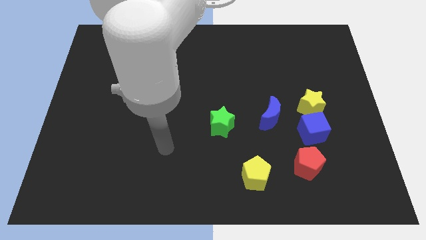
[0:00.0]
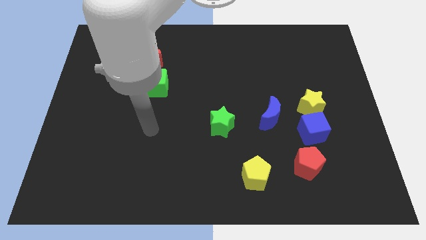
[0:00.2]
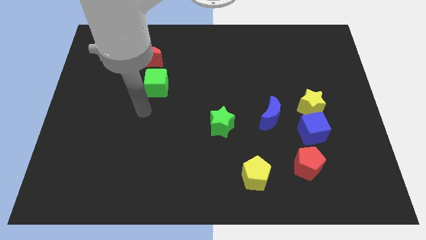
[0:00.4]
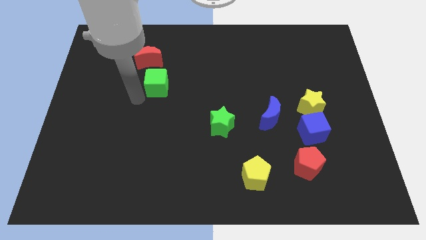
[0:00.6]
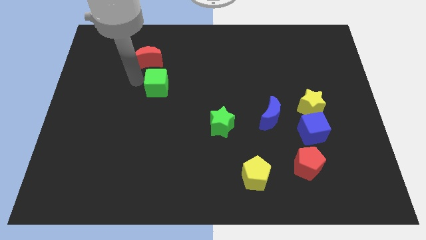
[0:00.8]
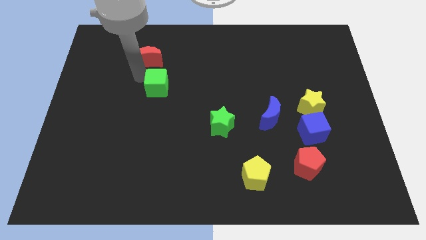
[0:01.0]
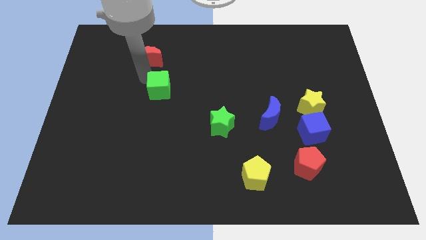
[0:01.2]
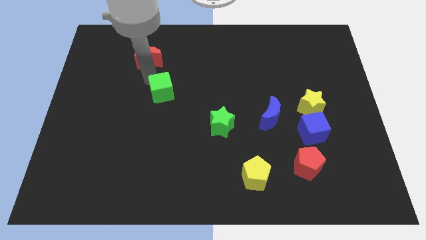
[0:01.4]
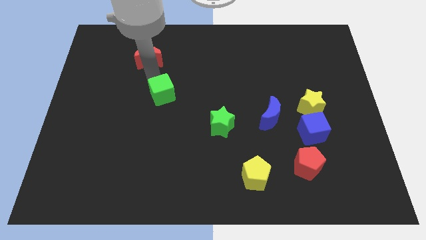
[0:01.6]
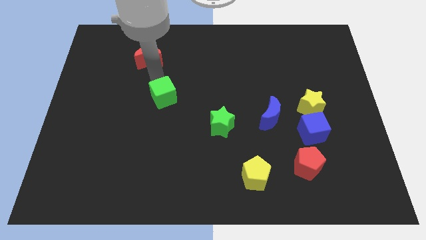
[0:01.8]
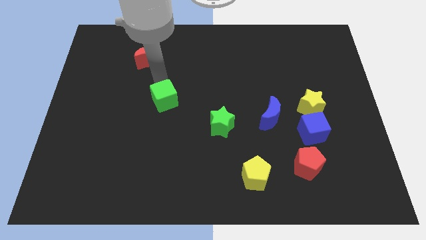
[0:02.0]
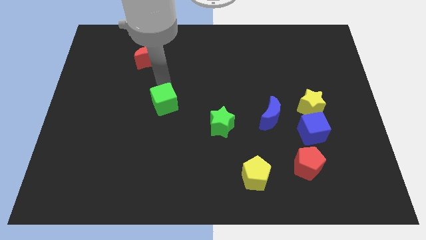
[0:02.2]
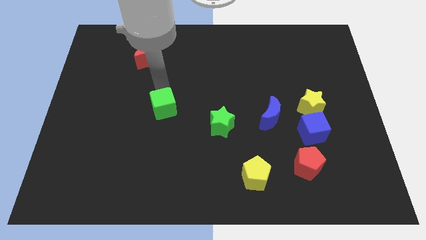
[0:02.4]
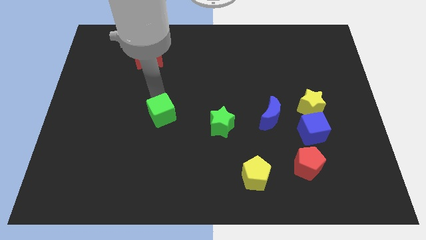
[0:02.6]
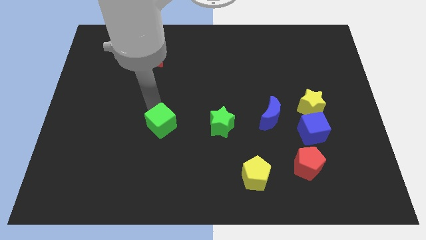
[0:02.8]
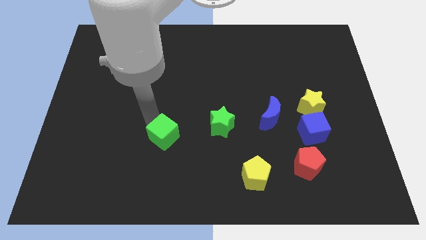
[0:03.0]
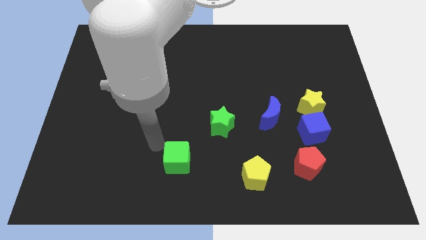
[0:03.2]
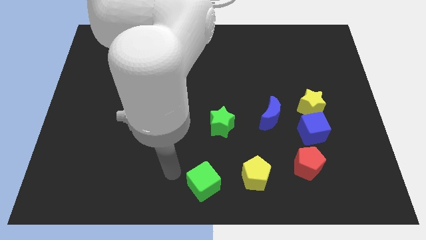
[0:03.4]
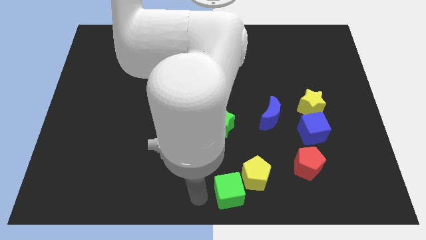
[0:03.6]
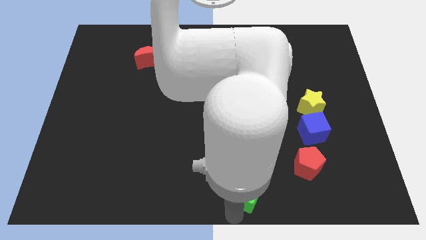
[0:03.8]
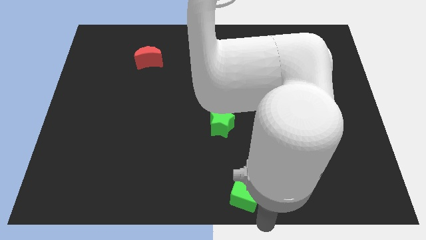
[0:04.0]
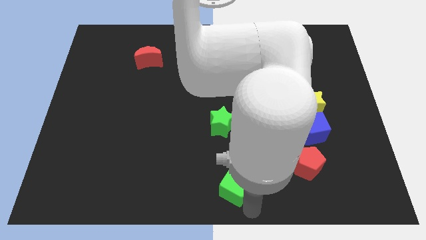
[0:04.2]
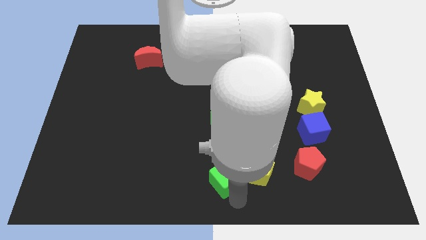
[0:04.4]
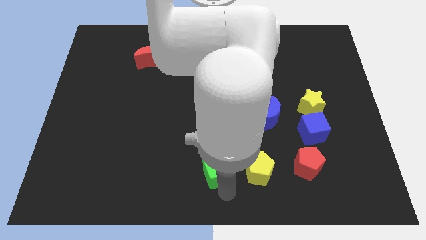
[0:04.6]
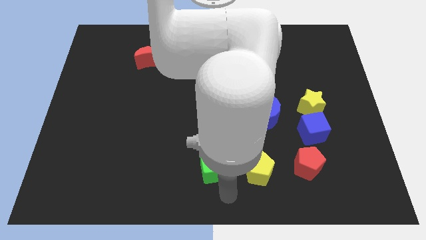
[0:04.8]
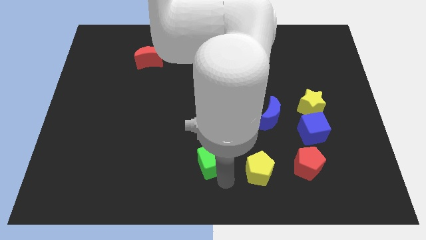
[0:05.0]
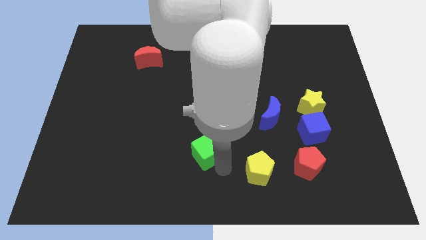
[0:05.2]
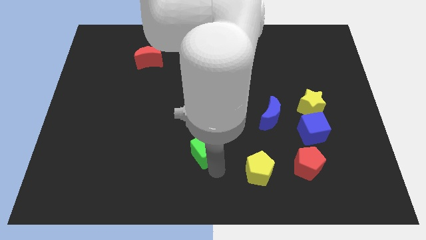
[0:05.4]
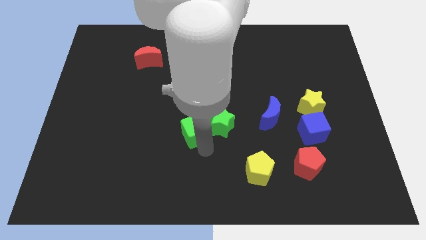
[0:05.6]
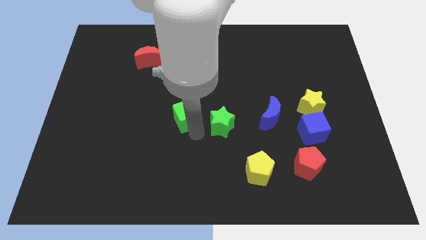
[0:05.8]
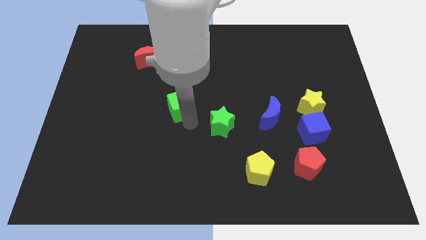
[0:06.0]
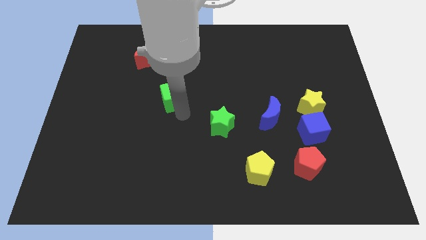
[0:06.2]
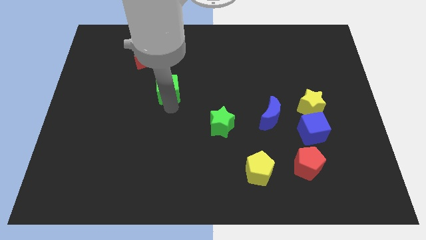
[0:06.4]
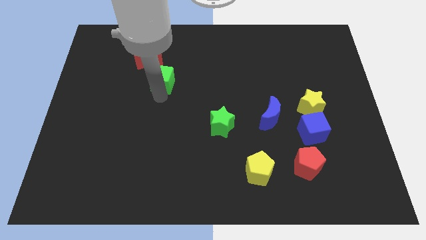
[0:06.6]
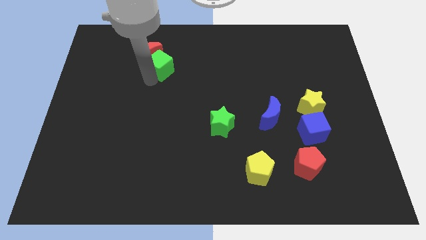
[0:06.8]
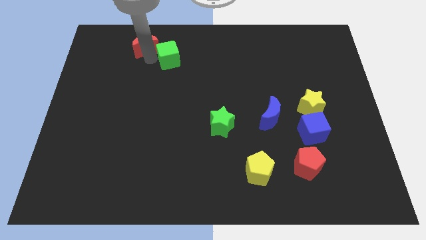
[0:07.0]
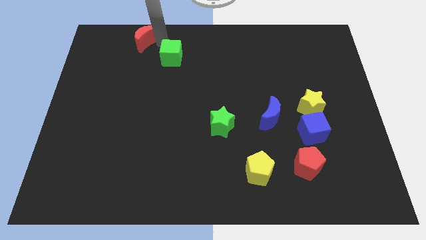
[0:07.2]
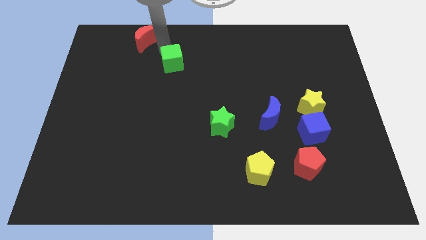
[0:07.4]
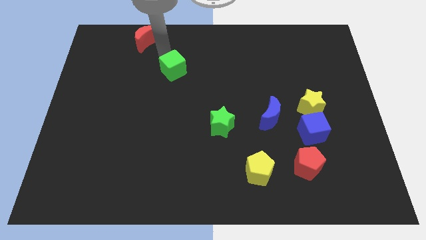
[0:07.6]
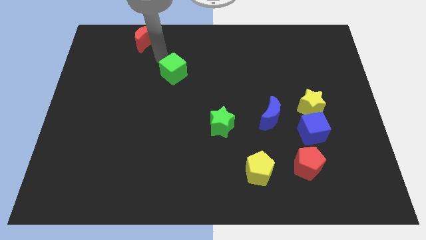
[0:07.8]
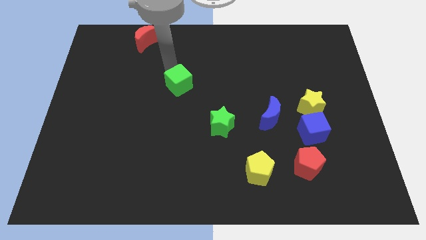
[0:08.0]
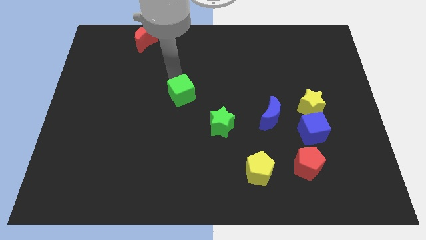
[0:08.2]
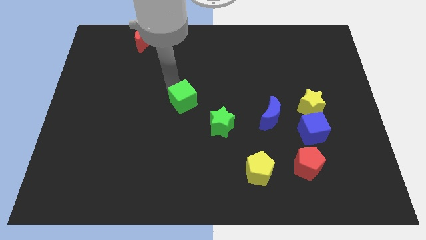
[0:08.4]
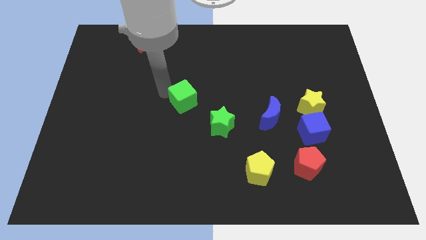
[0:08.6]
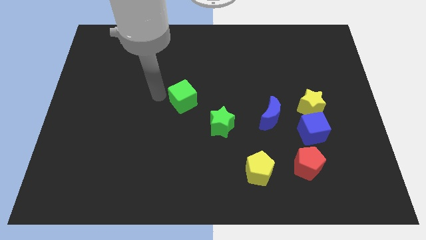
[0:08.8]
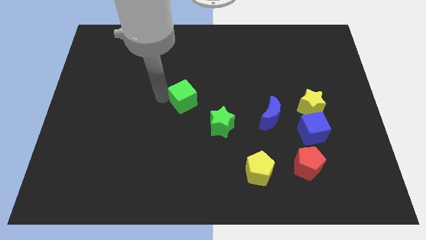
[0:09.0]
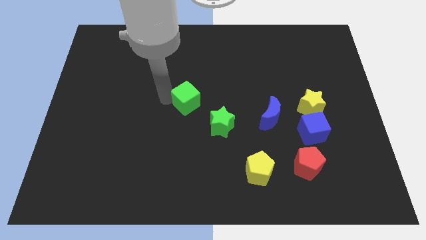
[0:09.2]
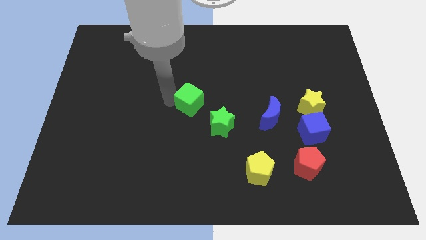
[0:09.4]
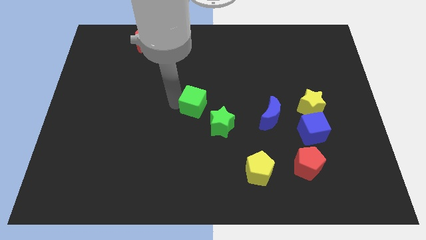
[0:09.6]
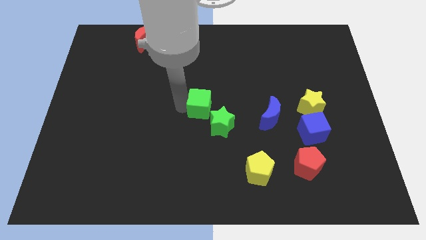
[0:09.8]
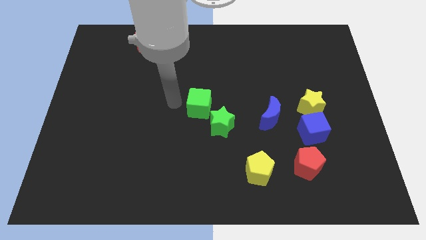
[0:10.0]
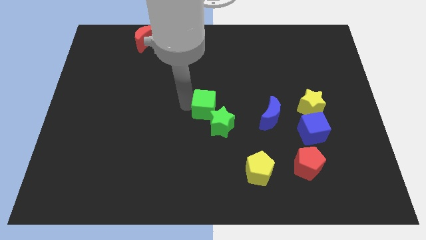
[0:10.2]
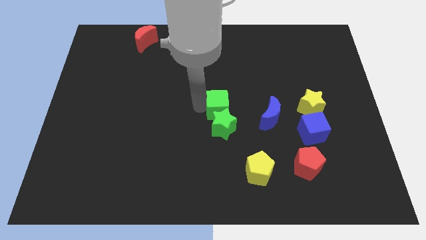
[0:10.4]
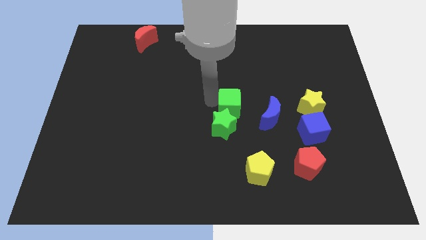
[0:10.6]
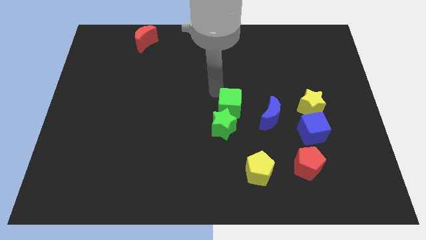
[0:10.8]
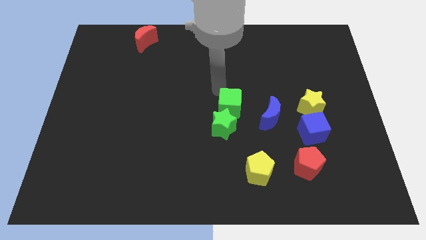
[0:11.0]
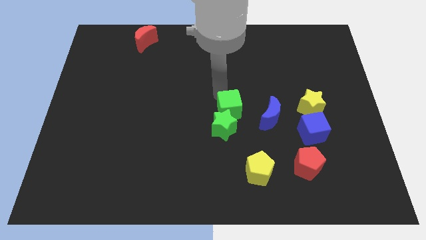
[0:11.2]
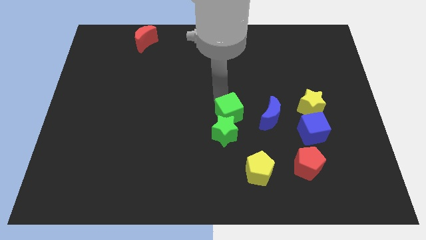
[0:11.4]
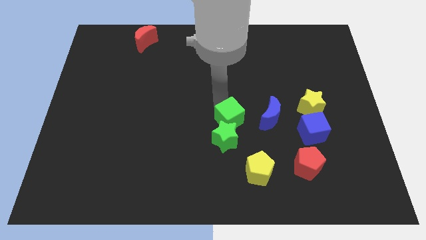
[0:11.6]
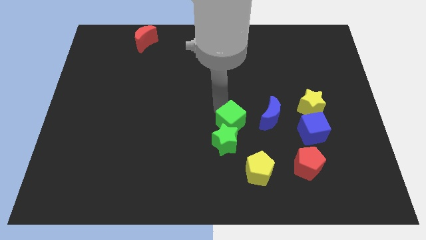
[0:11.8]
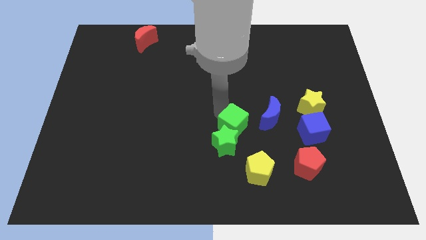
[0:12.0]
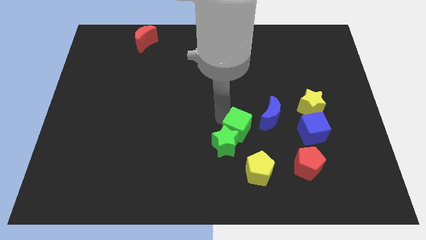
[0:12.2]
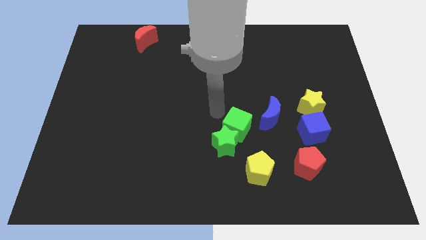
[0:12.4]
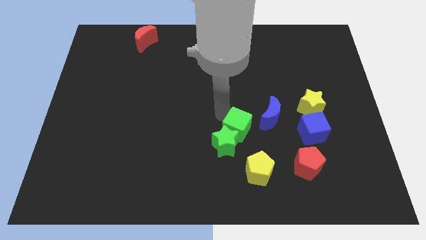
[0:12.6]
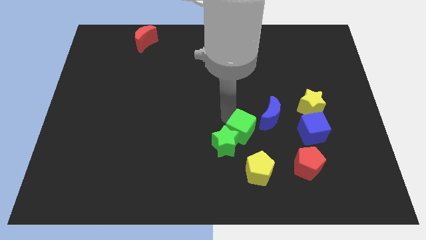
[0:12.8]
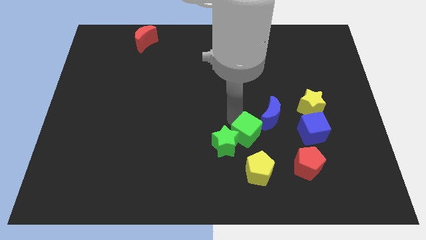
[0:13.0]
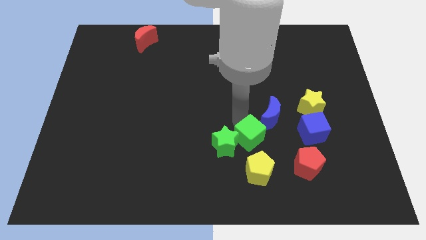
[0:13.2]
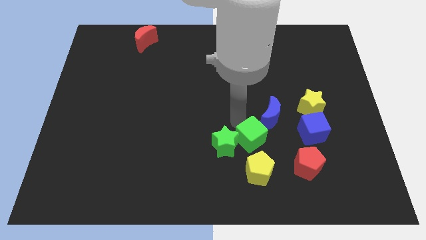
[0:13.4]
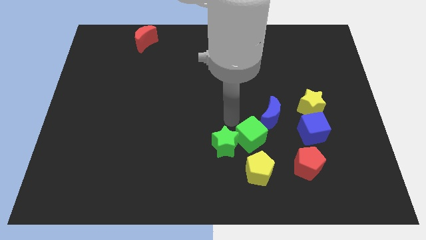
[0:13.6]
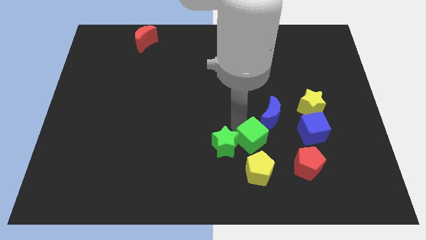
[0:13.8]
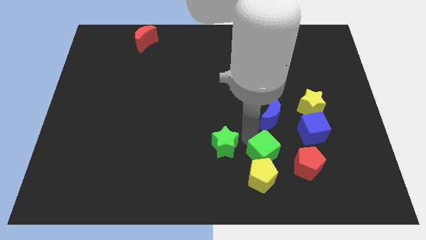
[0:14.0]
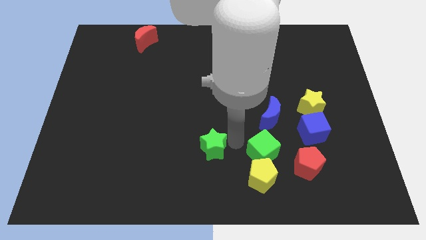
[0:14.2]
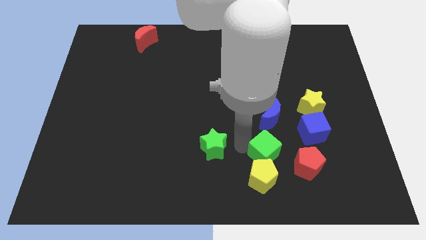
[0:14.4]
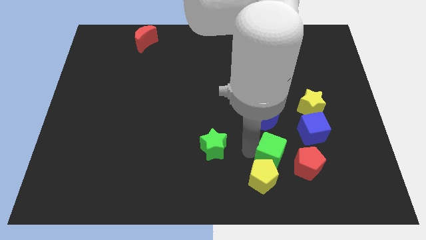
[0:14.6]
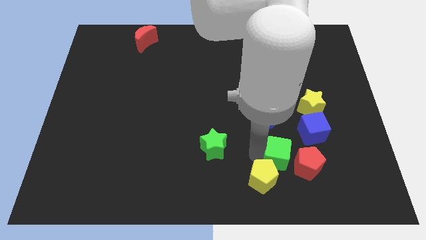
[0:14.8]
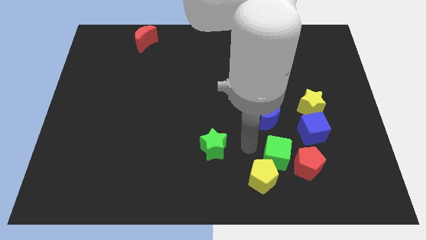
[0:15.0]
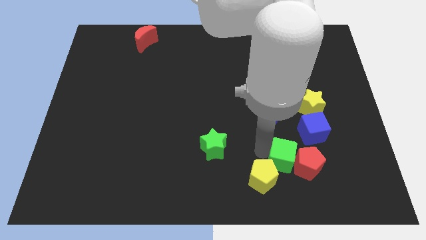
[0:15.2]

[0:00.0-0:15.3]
slide the green cube to the red pentagon
